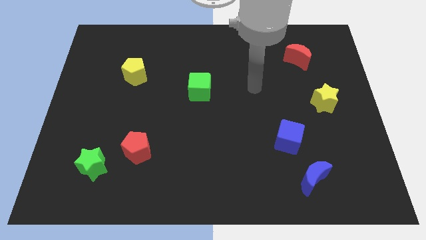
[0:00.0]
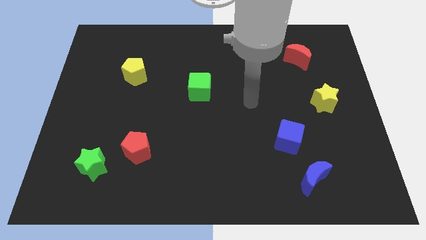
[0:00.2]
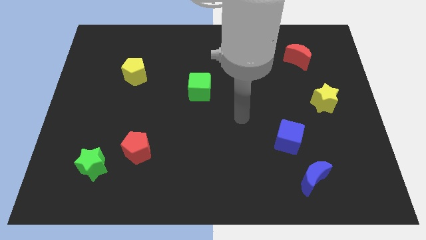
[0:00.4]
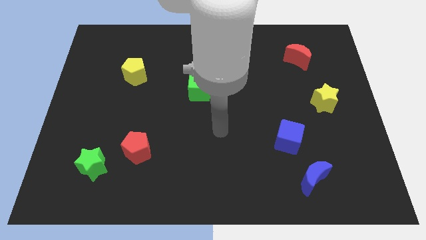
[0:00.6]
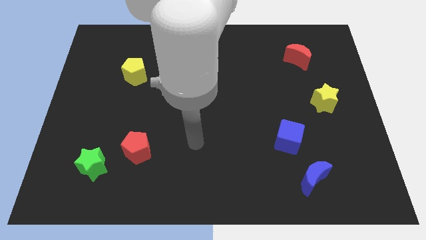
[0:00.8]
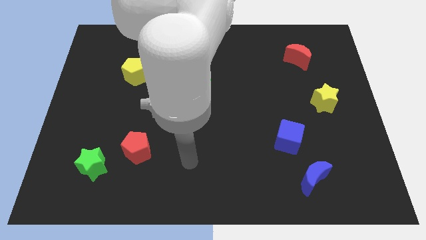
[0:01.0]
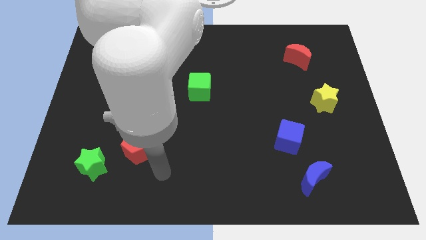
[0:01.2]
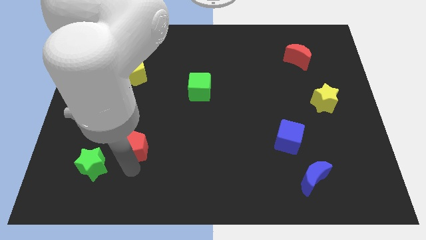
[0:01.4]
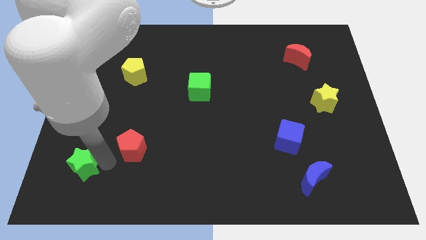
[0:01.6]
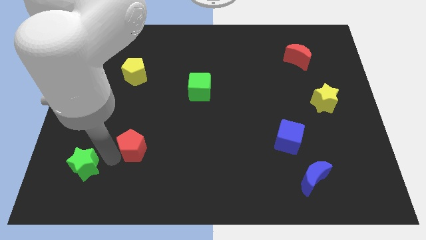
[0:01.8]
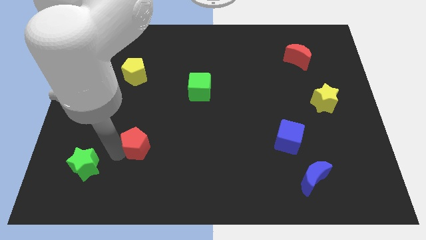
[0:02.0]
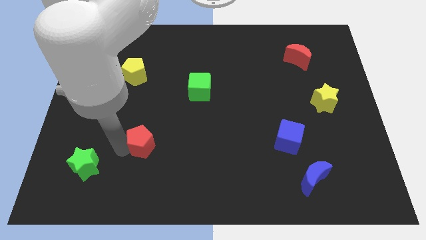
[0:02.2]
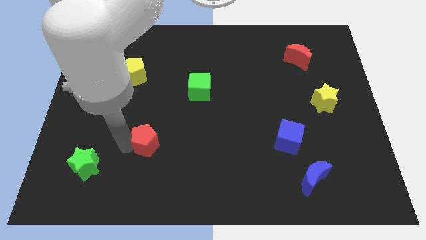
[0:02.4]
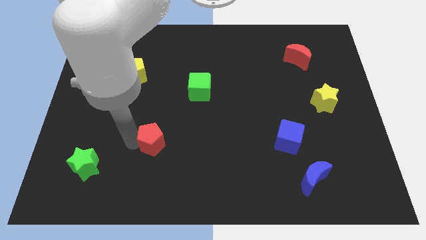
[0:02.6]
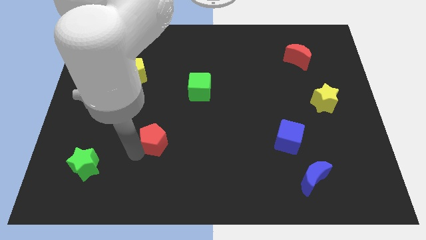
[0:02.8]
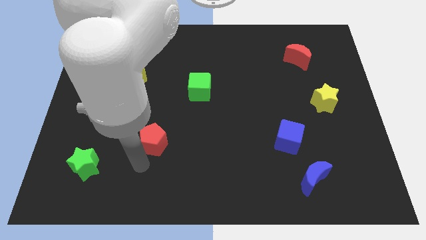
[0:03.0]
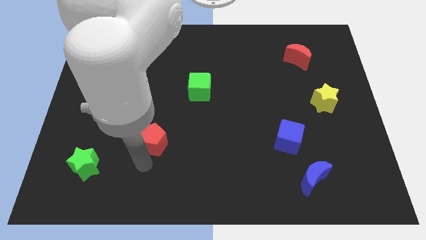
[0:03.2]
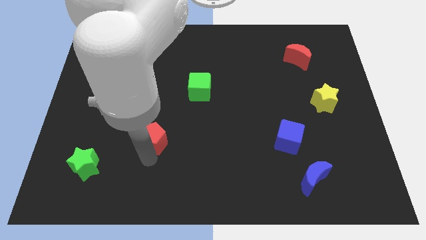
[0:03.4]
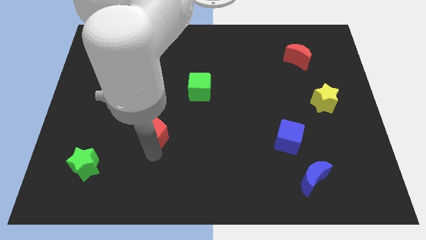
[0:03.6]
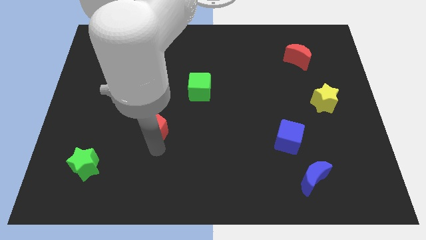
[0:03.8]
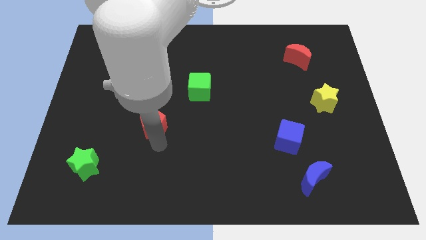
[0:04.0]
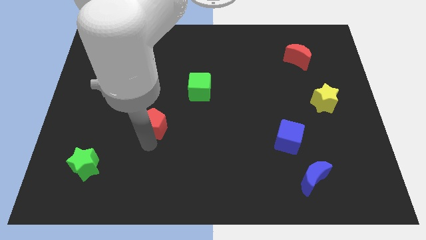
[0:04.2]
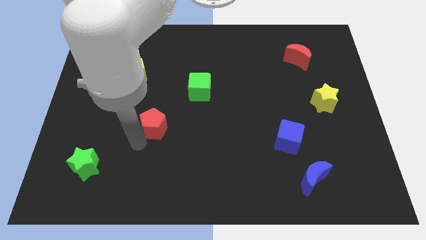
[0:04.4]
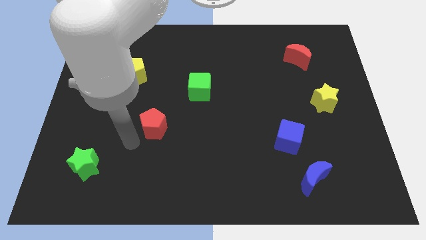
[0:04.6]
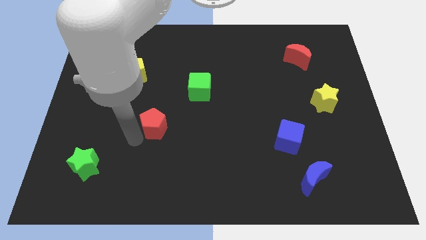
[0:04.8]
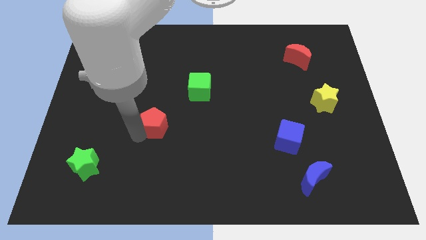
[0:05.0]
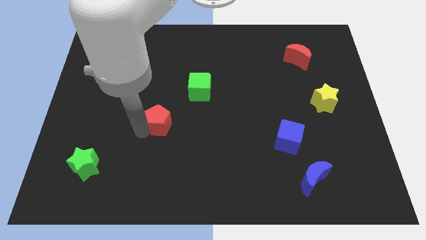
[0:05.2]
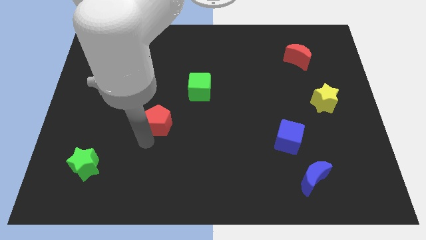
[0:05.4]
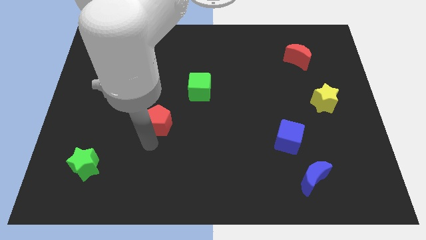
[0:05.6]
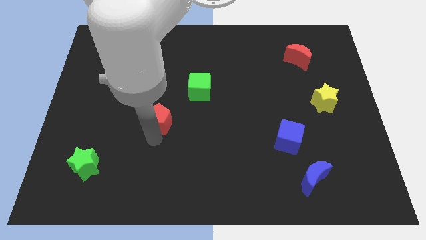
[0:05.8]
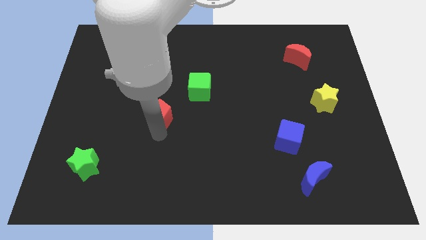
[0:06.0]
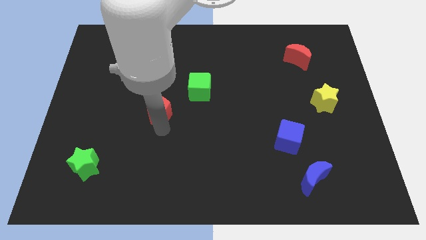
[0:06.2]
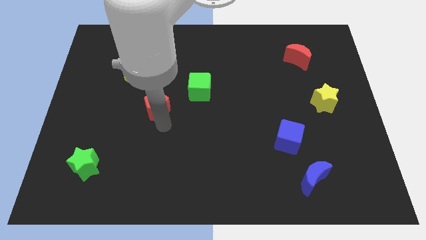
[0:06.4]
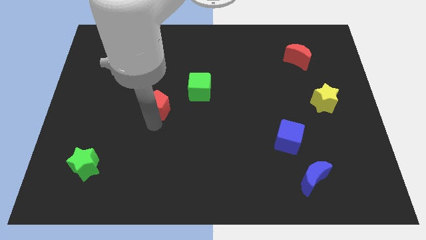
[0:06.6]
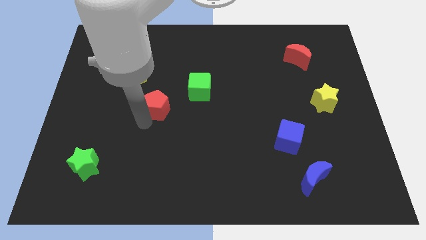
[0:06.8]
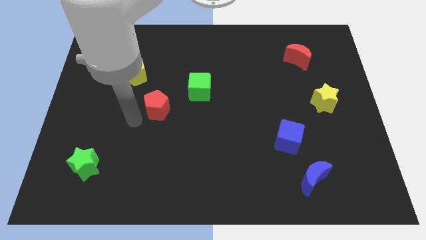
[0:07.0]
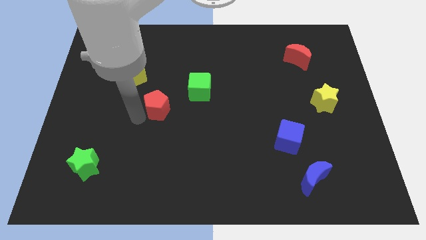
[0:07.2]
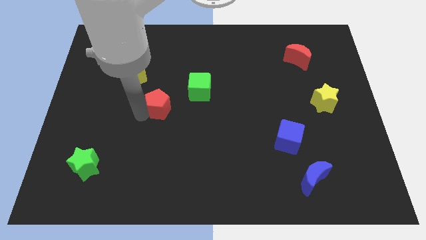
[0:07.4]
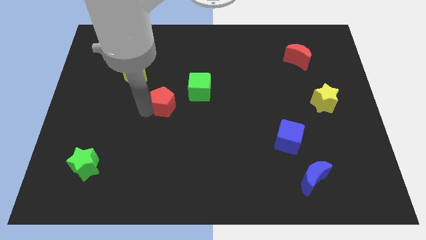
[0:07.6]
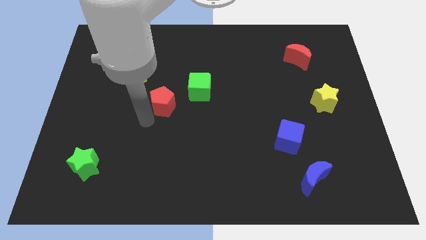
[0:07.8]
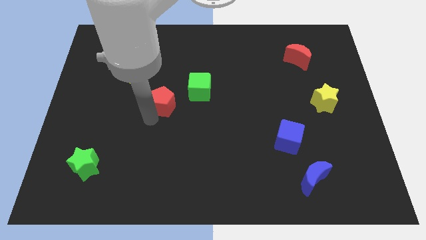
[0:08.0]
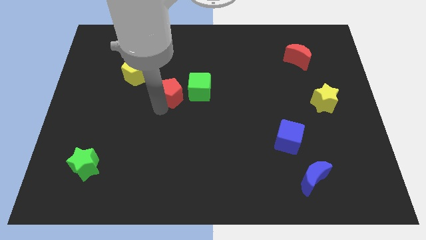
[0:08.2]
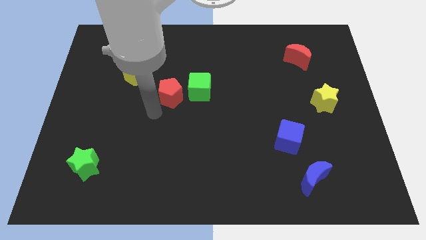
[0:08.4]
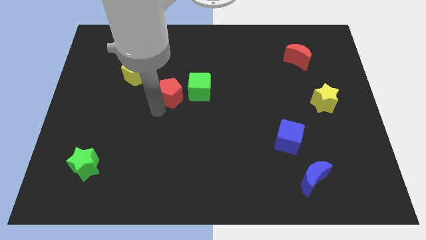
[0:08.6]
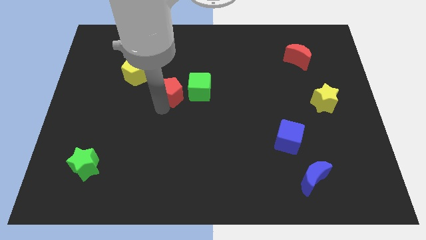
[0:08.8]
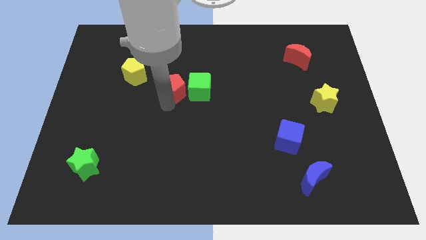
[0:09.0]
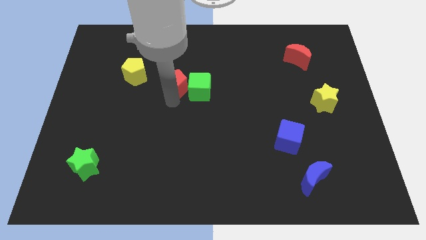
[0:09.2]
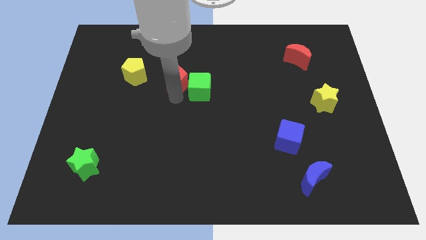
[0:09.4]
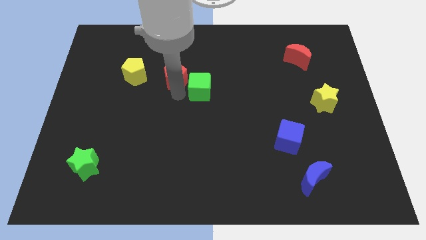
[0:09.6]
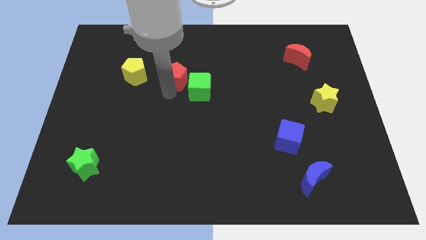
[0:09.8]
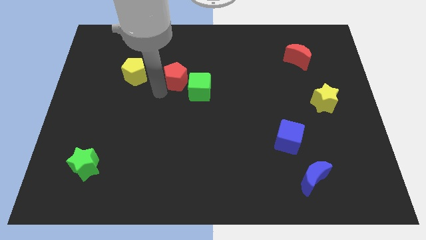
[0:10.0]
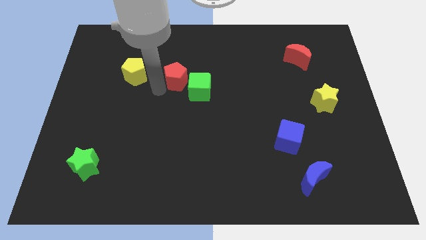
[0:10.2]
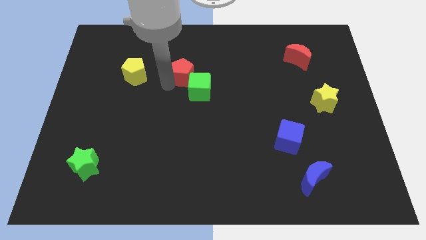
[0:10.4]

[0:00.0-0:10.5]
put the red pentagon to the top side of the green cube

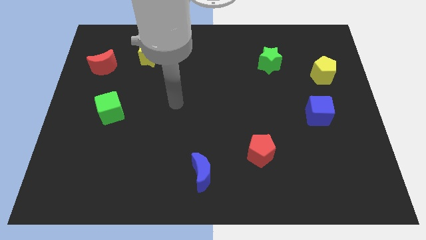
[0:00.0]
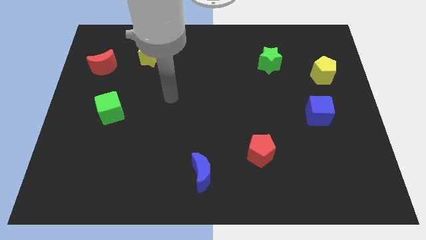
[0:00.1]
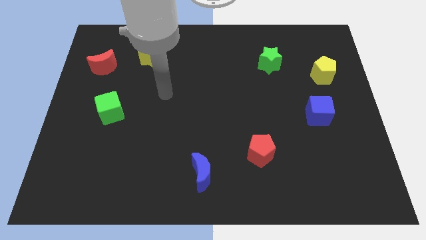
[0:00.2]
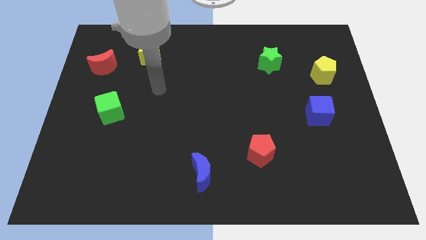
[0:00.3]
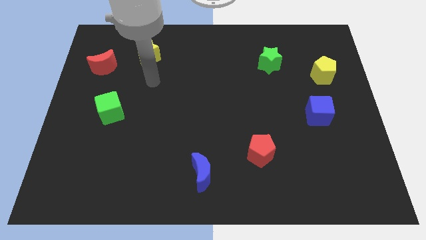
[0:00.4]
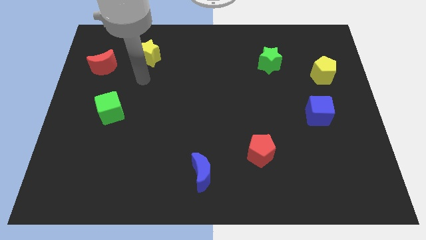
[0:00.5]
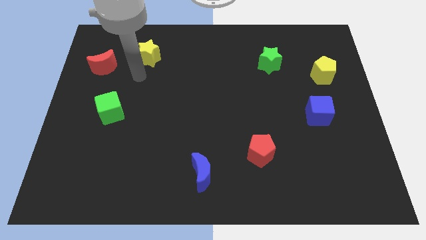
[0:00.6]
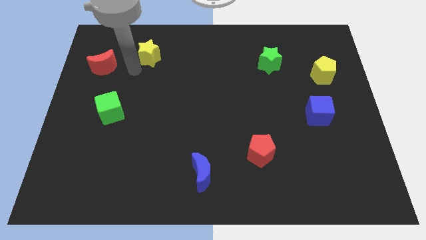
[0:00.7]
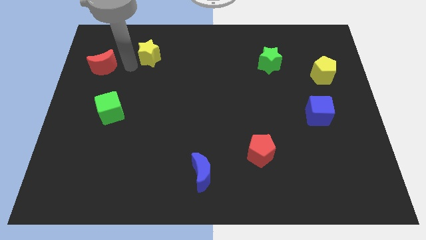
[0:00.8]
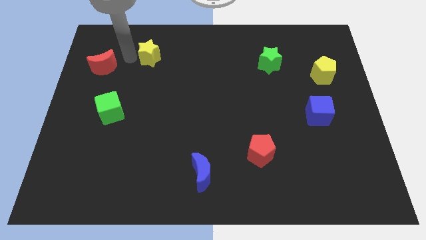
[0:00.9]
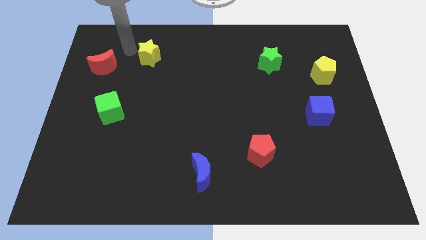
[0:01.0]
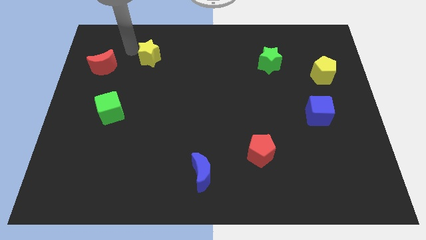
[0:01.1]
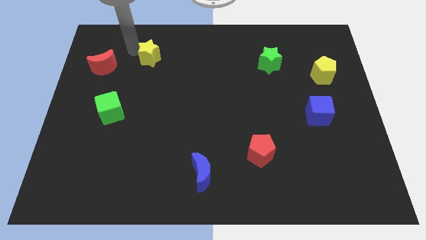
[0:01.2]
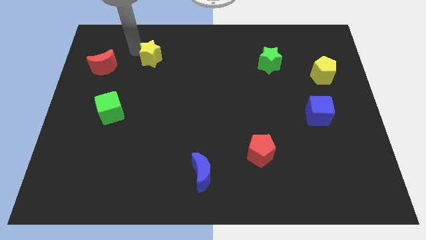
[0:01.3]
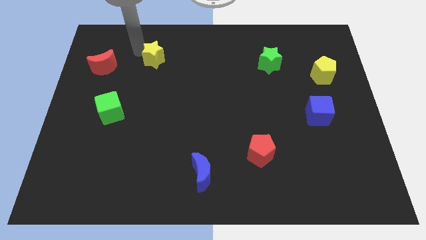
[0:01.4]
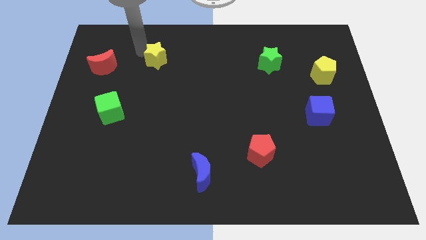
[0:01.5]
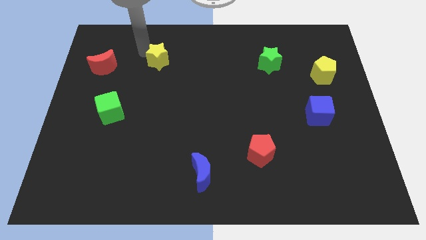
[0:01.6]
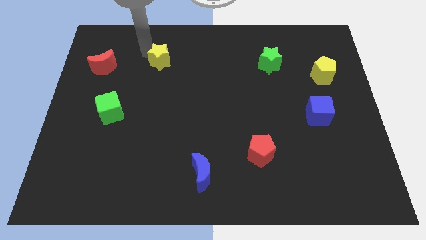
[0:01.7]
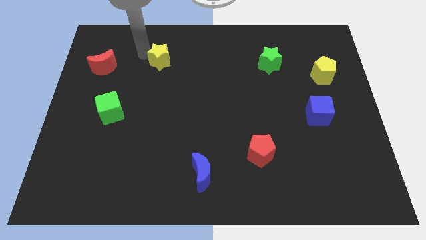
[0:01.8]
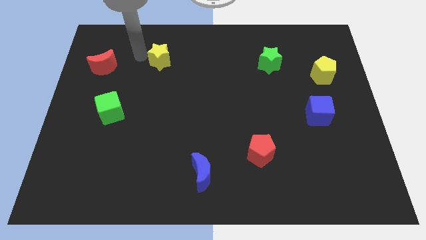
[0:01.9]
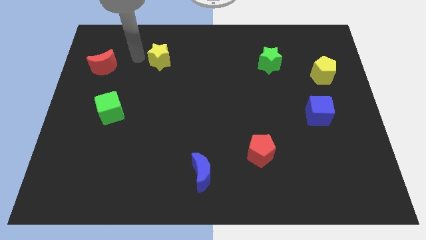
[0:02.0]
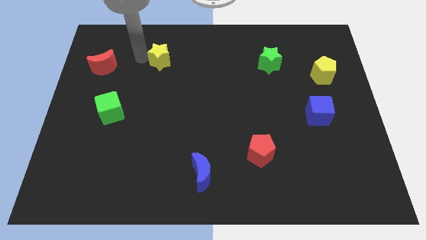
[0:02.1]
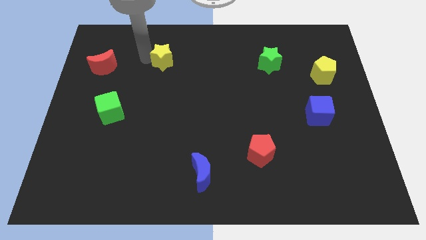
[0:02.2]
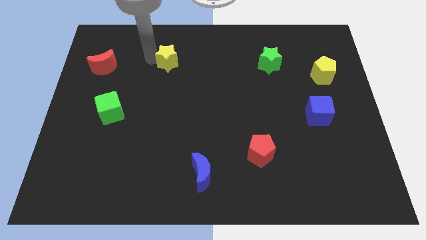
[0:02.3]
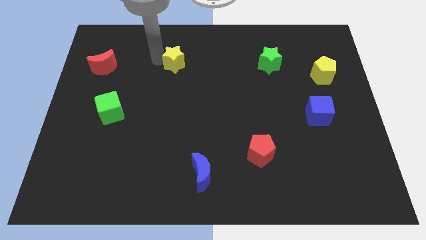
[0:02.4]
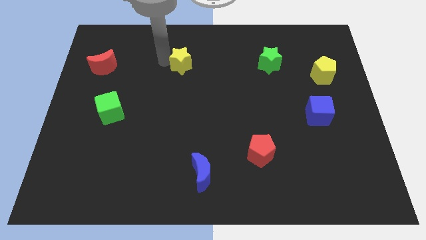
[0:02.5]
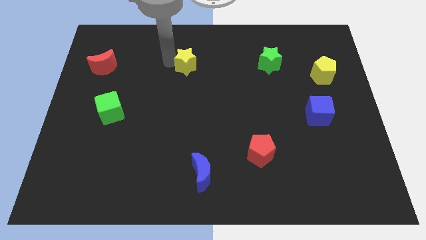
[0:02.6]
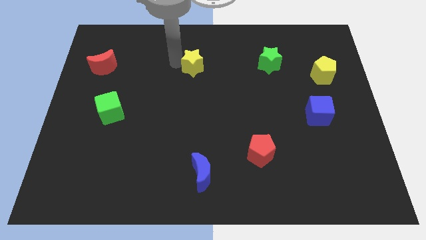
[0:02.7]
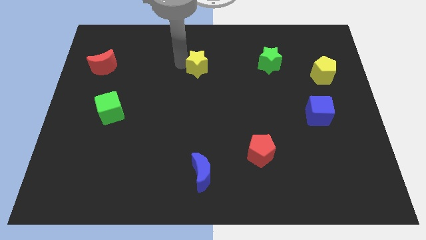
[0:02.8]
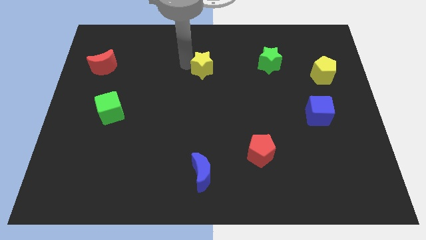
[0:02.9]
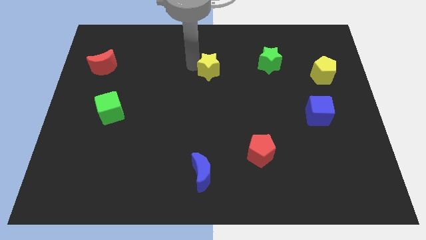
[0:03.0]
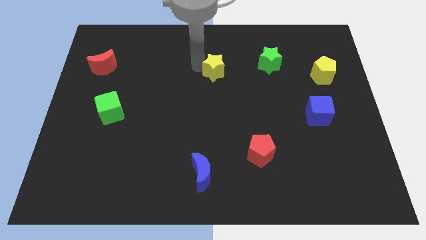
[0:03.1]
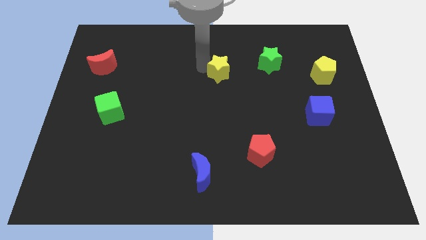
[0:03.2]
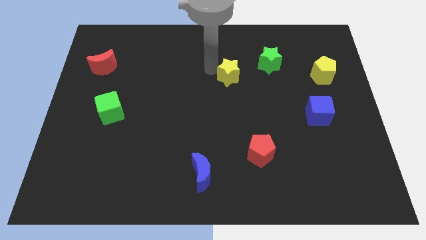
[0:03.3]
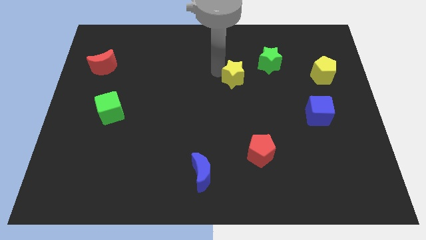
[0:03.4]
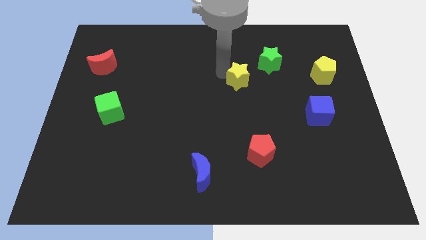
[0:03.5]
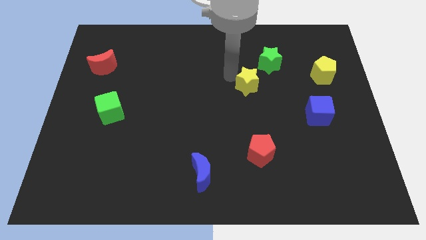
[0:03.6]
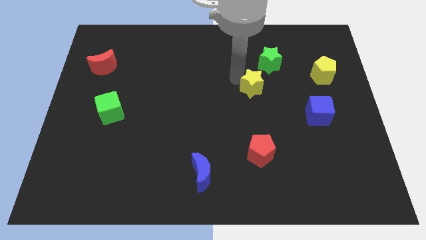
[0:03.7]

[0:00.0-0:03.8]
slide the yellow star below the green star
